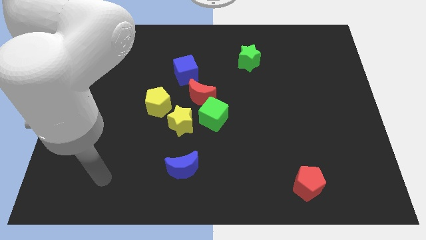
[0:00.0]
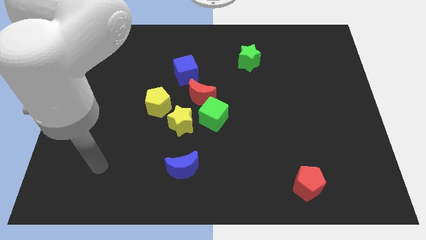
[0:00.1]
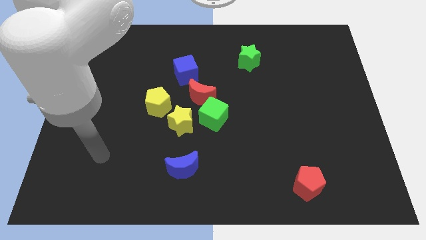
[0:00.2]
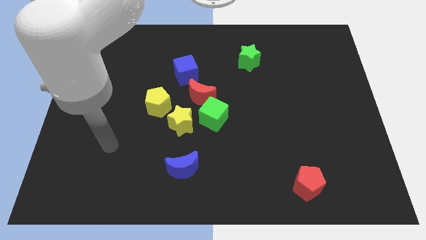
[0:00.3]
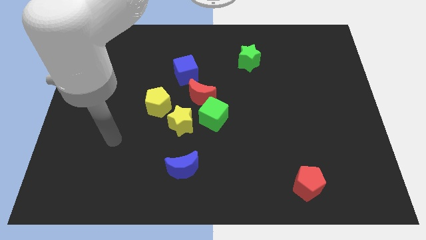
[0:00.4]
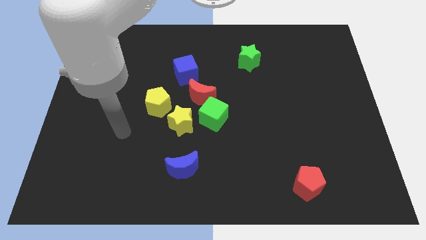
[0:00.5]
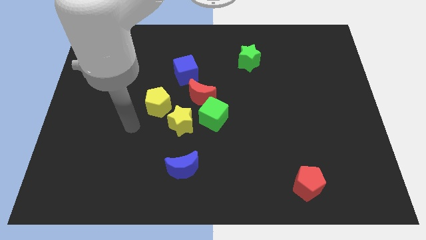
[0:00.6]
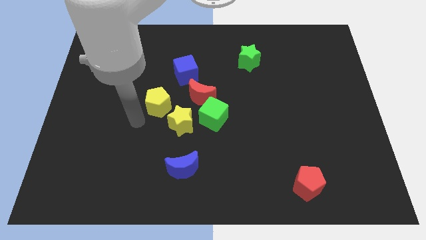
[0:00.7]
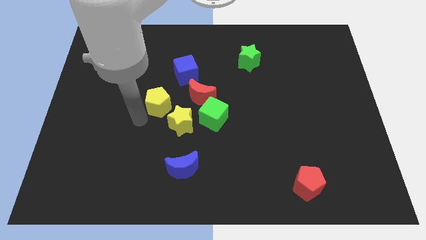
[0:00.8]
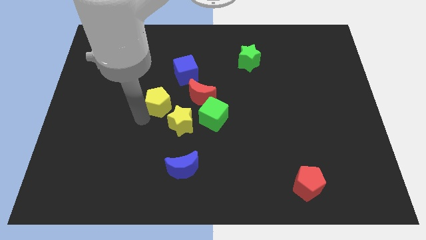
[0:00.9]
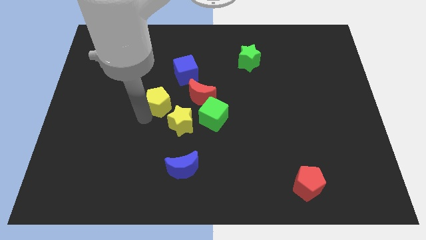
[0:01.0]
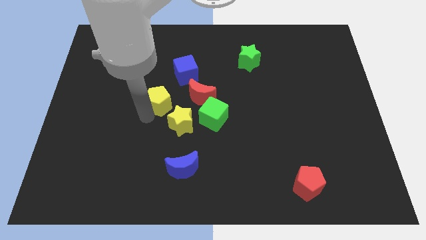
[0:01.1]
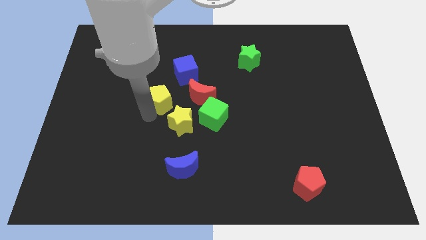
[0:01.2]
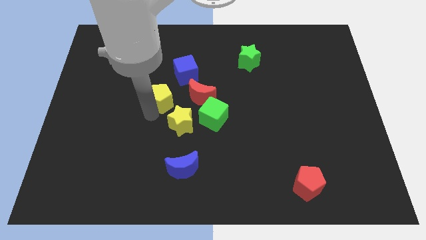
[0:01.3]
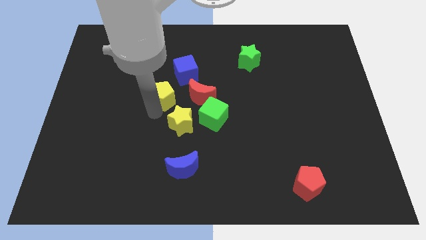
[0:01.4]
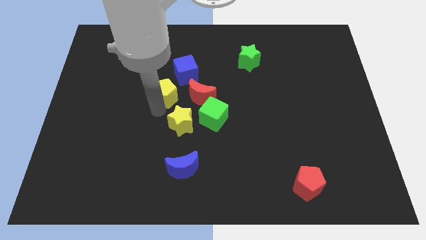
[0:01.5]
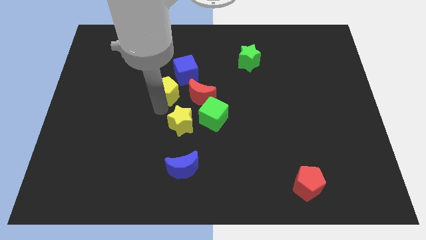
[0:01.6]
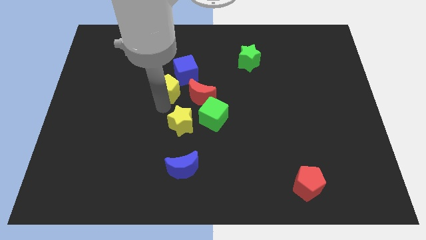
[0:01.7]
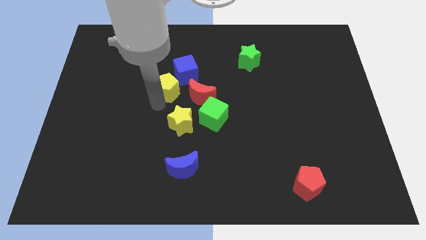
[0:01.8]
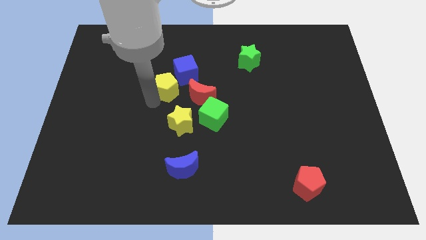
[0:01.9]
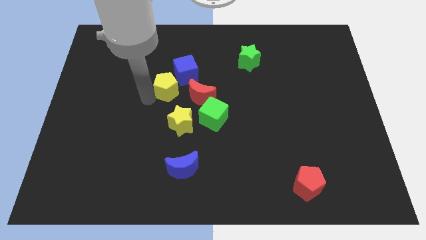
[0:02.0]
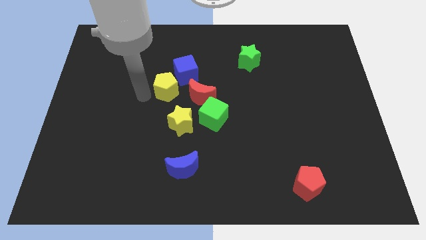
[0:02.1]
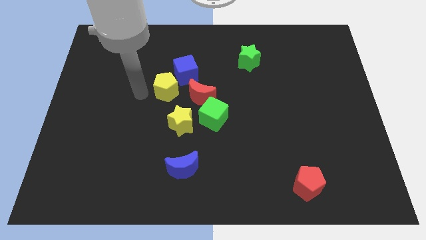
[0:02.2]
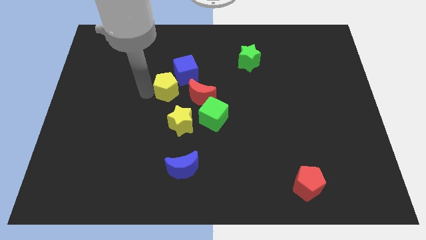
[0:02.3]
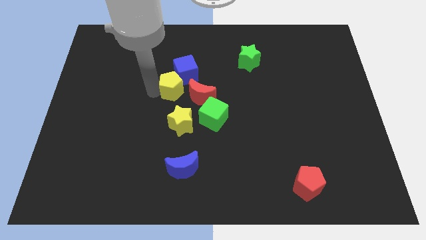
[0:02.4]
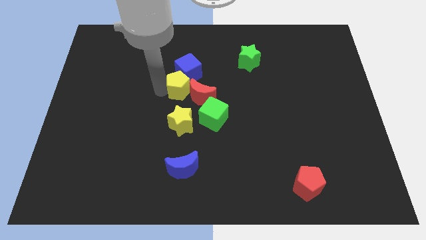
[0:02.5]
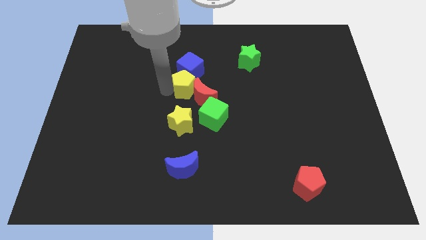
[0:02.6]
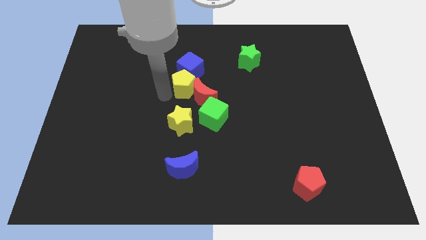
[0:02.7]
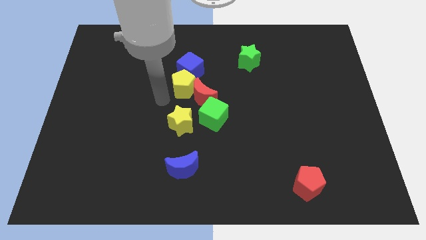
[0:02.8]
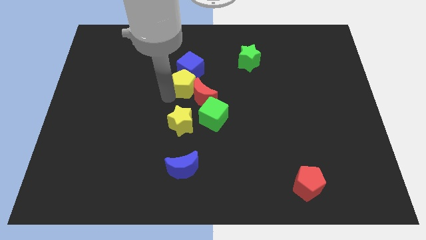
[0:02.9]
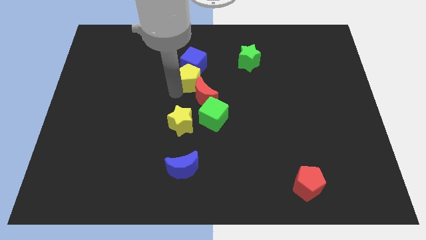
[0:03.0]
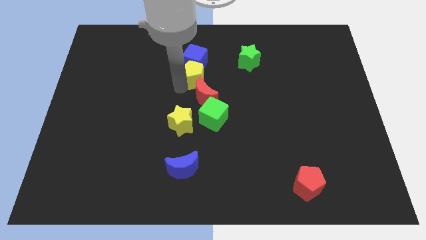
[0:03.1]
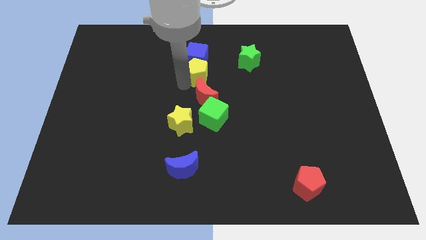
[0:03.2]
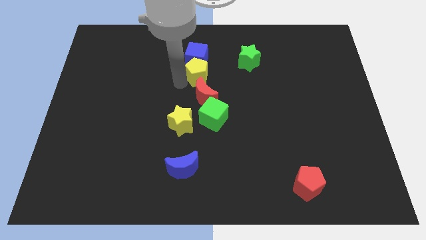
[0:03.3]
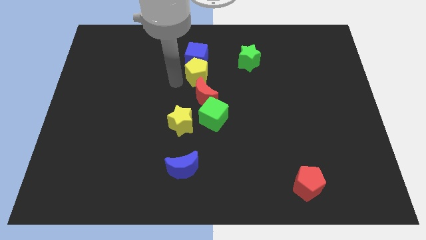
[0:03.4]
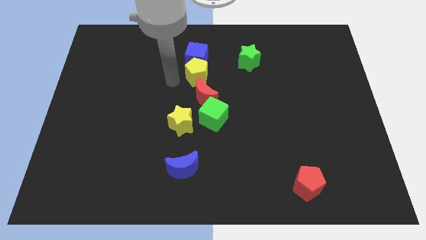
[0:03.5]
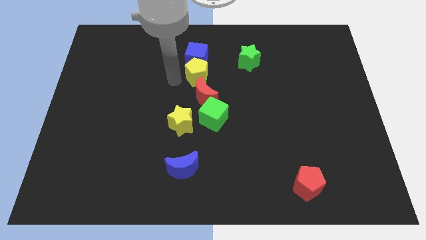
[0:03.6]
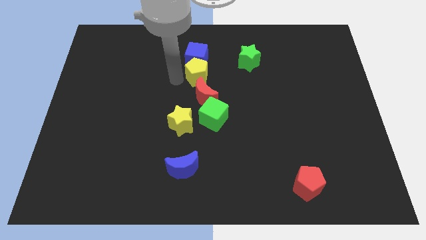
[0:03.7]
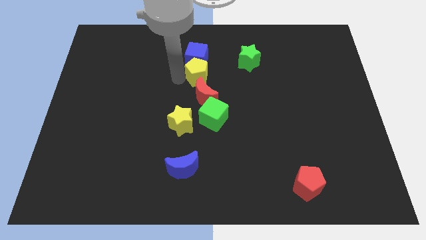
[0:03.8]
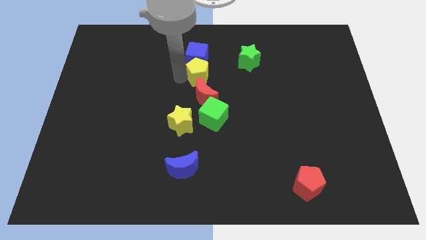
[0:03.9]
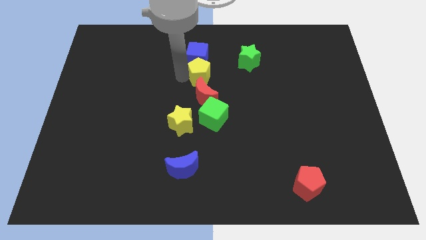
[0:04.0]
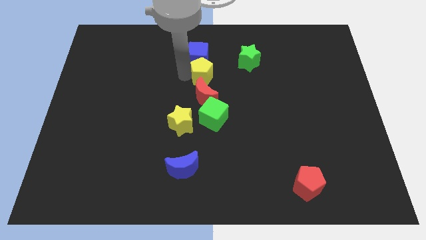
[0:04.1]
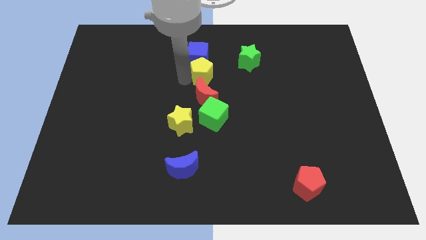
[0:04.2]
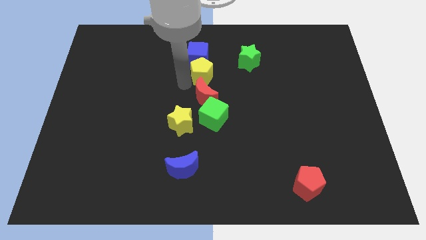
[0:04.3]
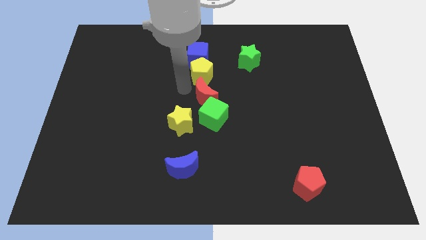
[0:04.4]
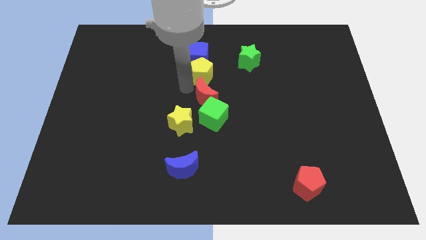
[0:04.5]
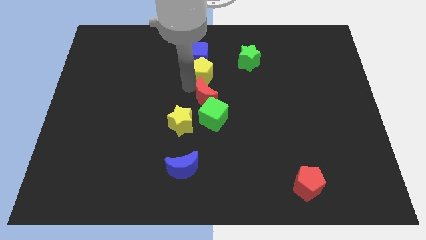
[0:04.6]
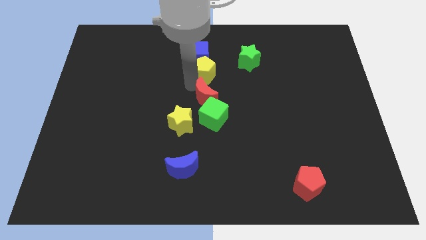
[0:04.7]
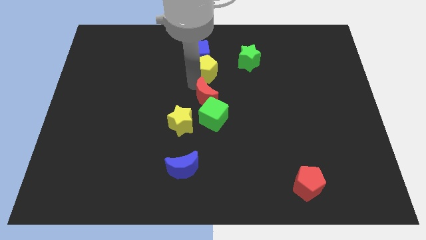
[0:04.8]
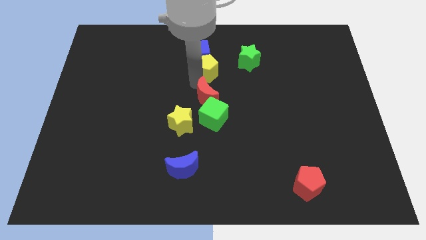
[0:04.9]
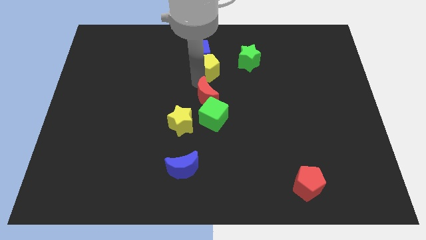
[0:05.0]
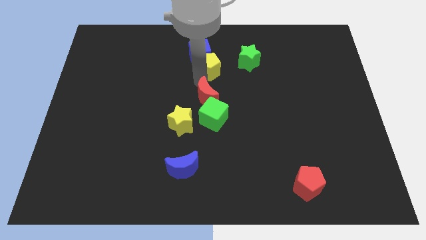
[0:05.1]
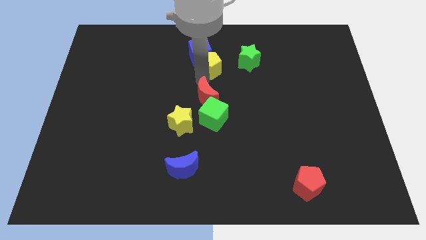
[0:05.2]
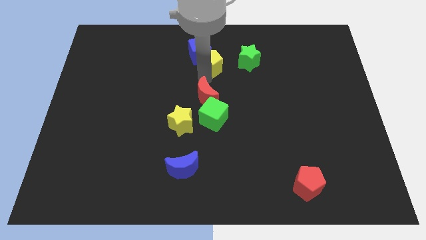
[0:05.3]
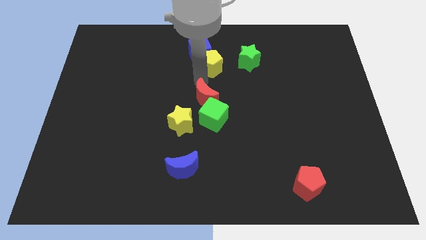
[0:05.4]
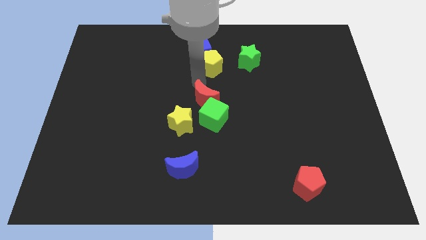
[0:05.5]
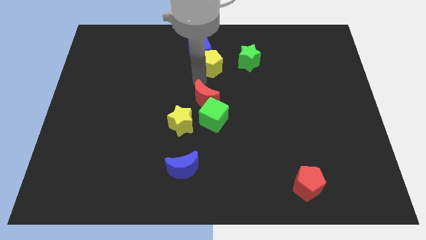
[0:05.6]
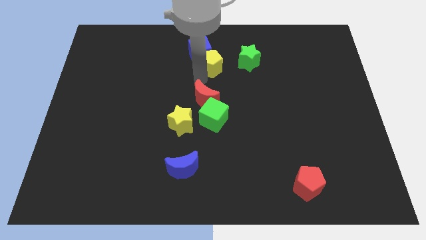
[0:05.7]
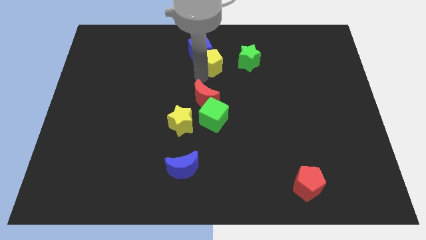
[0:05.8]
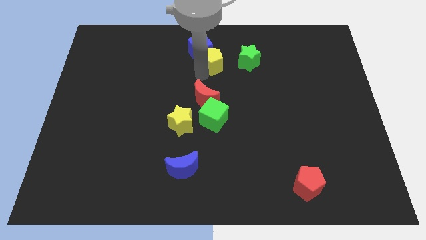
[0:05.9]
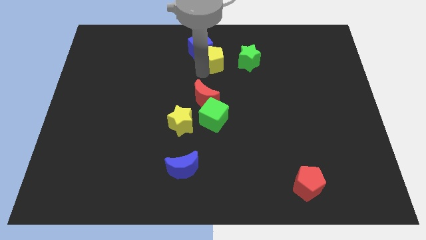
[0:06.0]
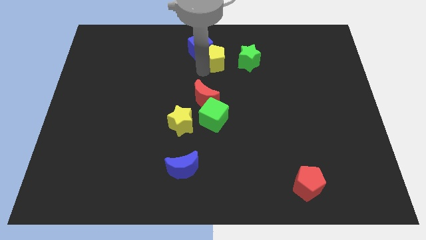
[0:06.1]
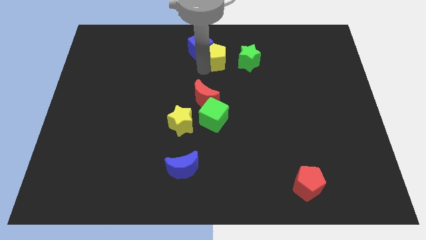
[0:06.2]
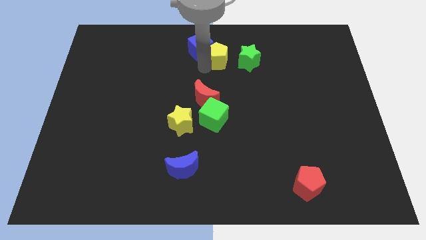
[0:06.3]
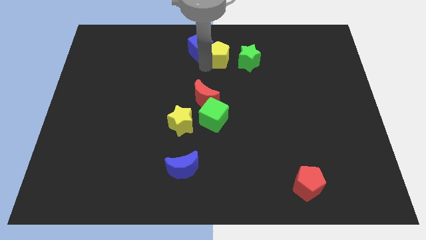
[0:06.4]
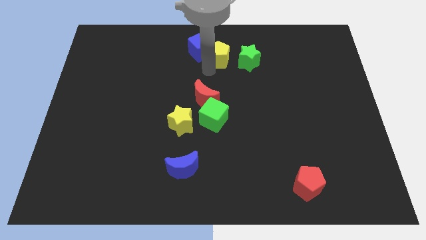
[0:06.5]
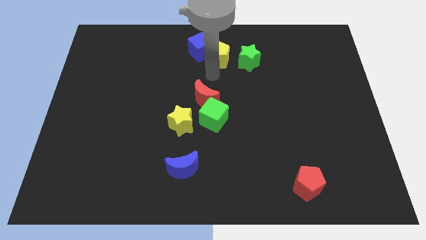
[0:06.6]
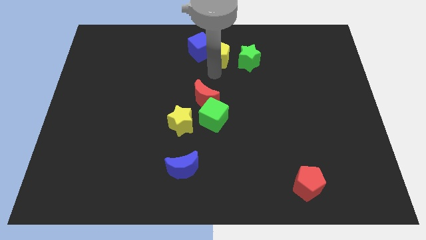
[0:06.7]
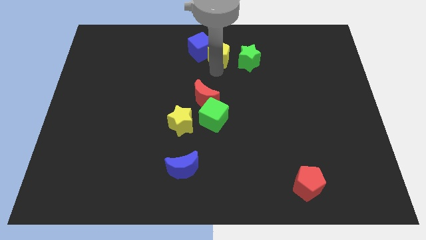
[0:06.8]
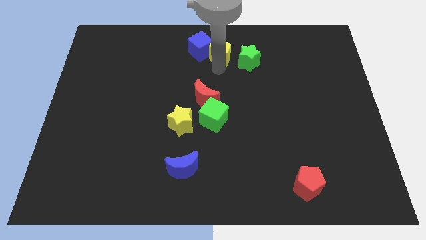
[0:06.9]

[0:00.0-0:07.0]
move the yellow pentagon to the top
